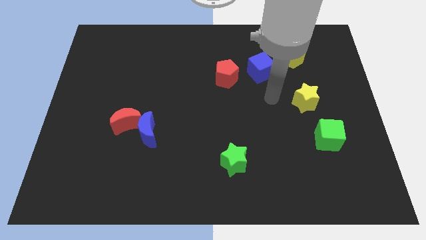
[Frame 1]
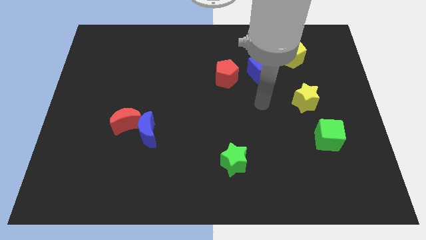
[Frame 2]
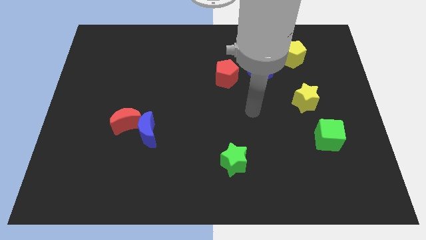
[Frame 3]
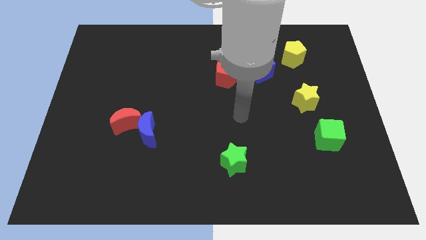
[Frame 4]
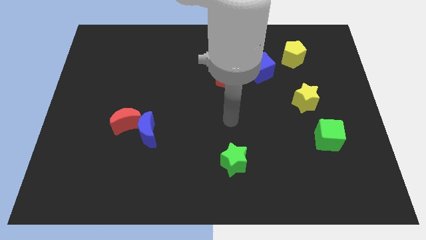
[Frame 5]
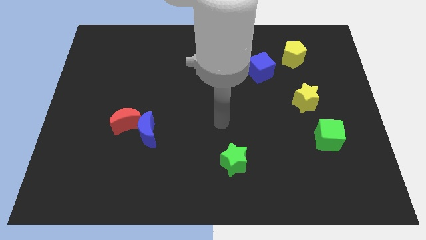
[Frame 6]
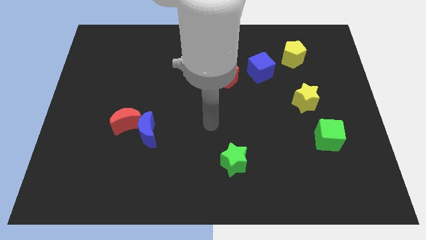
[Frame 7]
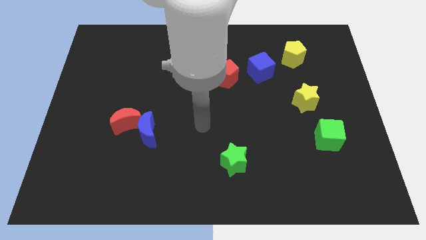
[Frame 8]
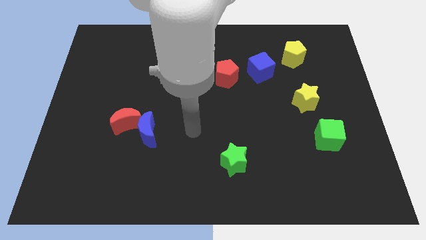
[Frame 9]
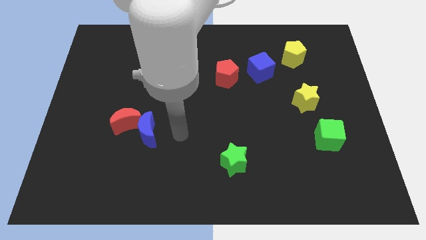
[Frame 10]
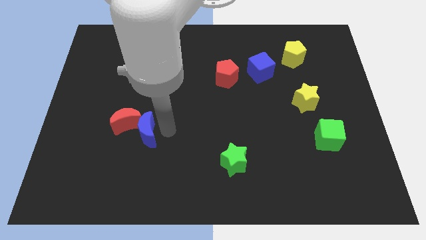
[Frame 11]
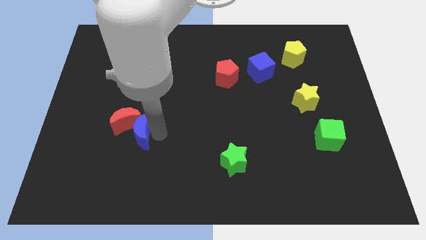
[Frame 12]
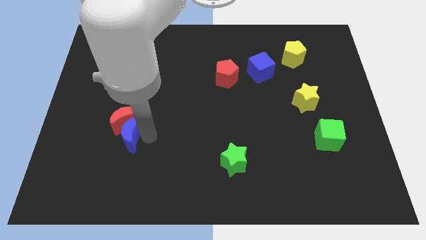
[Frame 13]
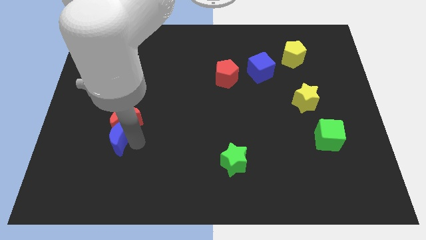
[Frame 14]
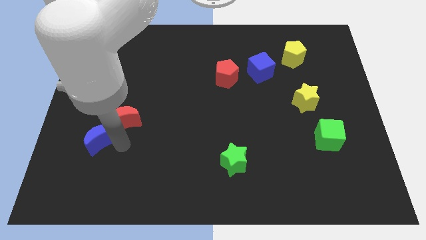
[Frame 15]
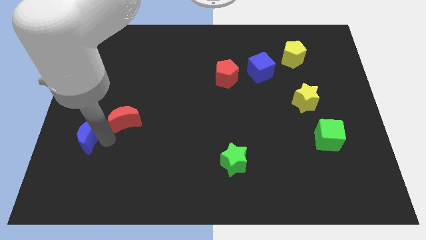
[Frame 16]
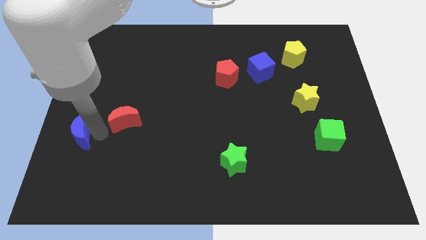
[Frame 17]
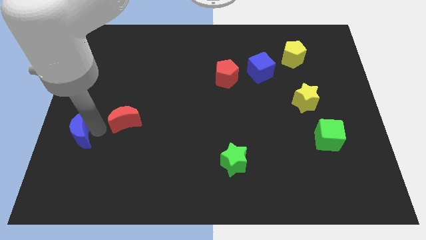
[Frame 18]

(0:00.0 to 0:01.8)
separate the red moon from the blue moon

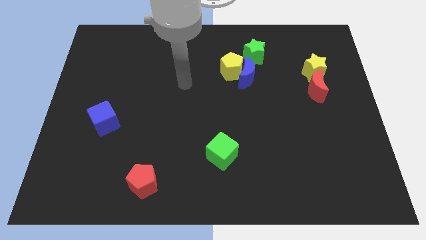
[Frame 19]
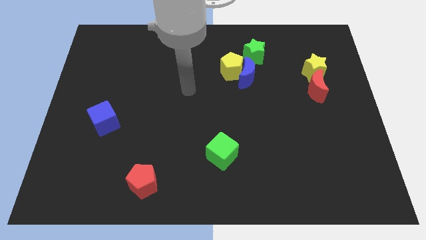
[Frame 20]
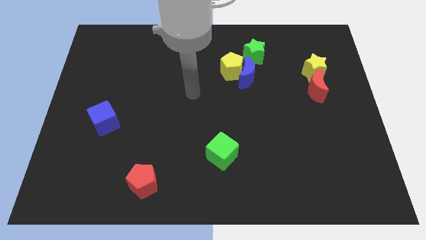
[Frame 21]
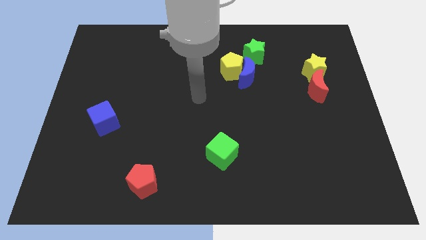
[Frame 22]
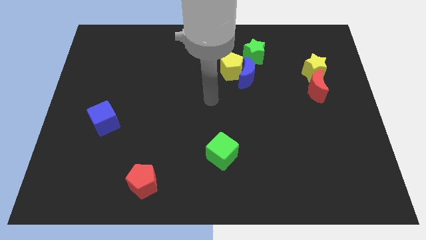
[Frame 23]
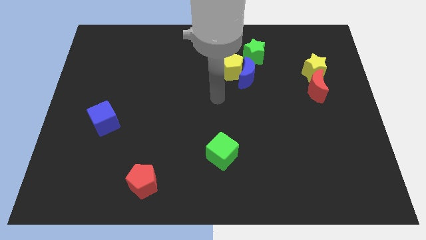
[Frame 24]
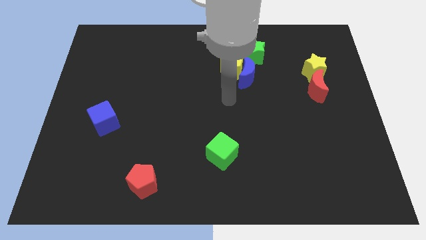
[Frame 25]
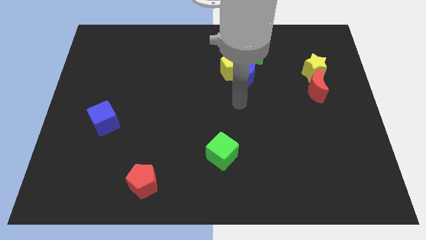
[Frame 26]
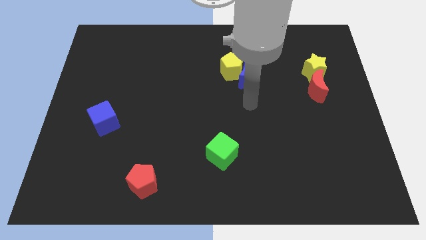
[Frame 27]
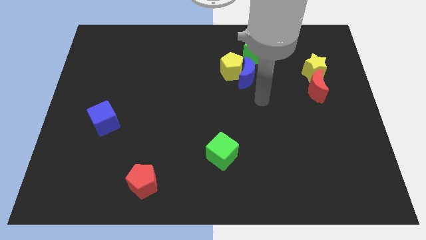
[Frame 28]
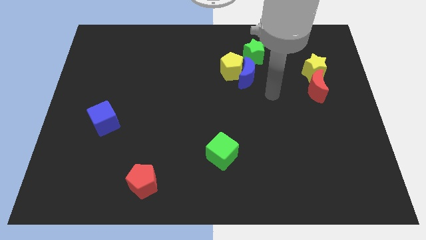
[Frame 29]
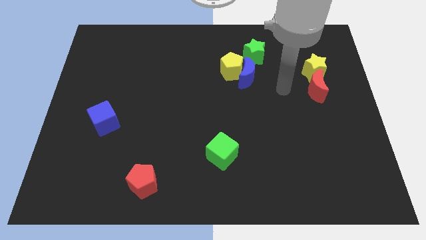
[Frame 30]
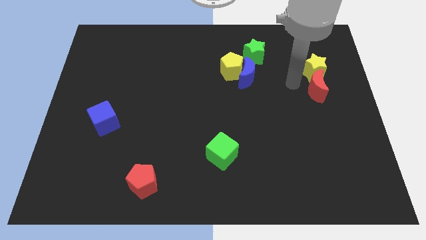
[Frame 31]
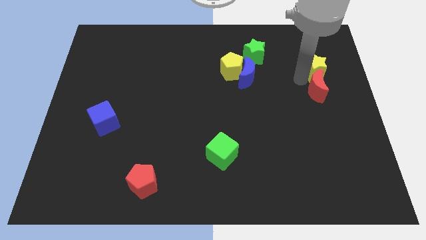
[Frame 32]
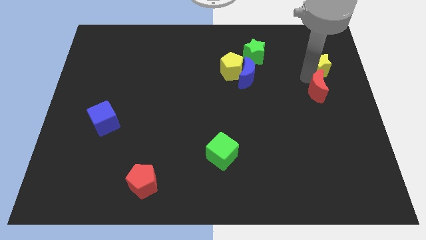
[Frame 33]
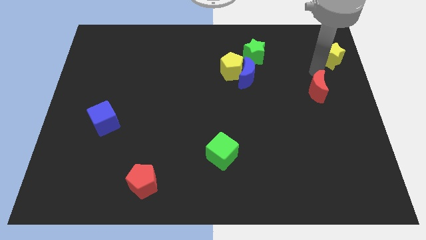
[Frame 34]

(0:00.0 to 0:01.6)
separate the red moon from the yellow star

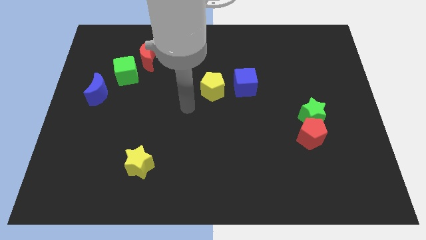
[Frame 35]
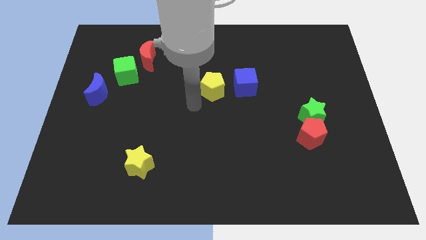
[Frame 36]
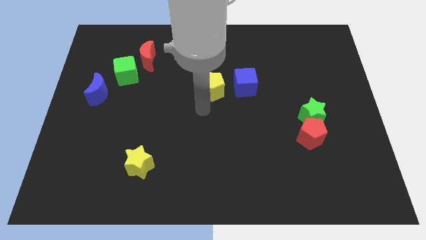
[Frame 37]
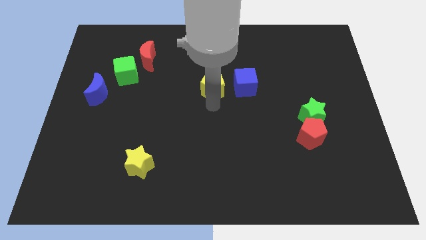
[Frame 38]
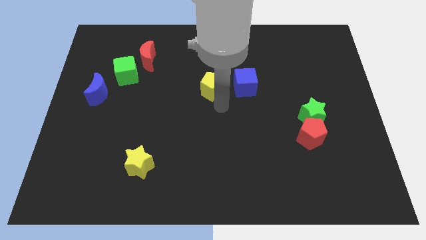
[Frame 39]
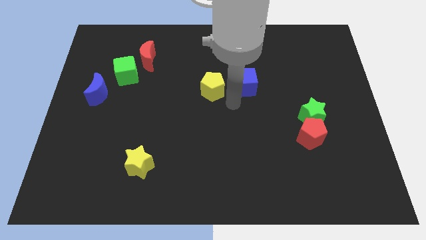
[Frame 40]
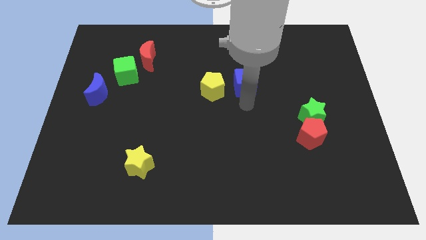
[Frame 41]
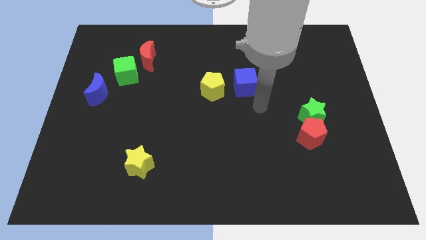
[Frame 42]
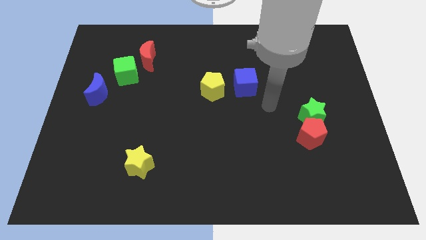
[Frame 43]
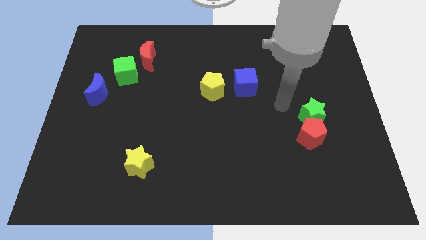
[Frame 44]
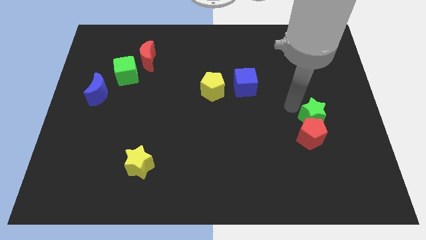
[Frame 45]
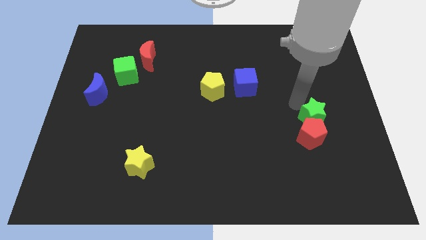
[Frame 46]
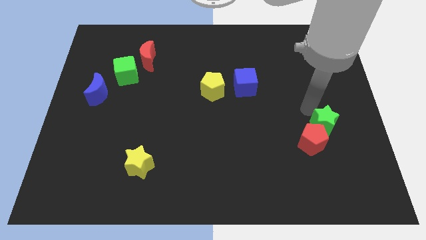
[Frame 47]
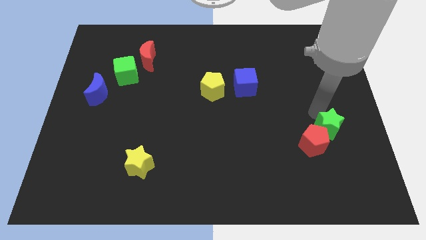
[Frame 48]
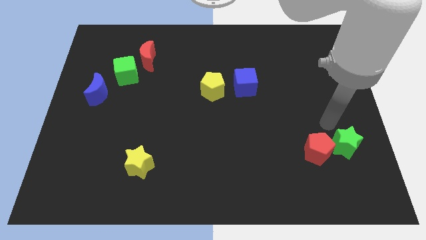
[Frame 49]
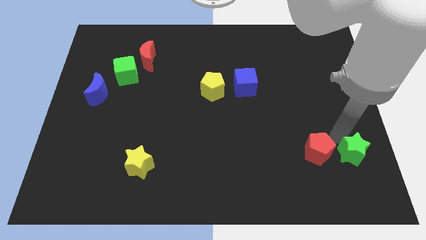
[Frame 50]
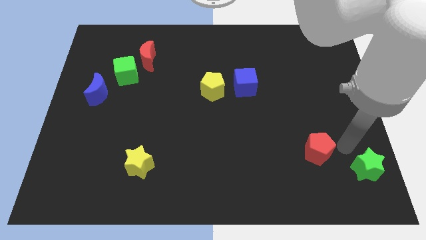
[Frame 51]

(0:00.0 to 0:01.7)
separate the red pentagon from the green star

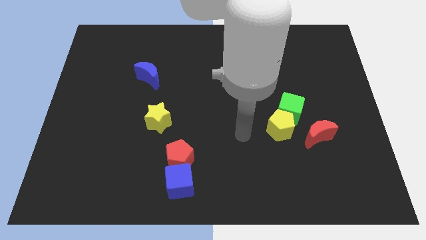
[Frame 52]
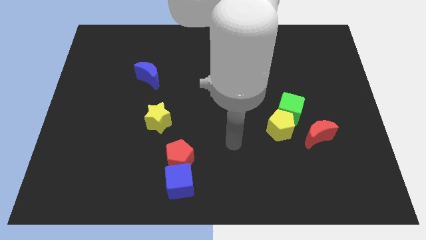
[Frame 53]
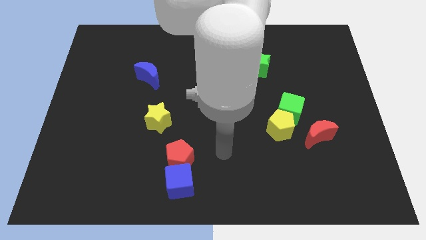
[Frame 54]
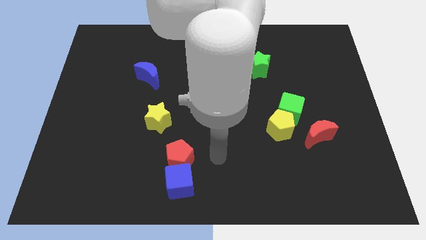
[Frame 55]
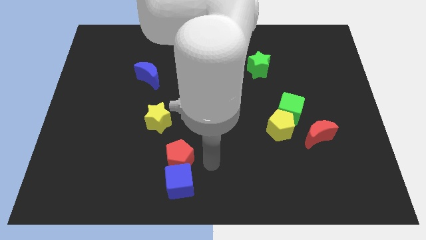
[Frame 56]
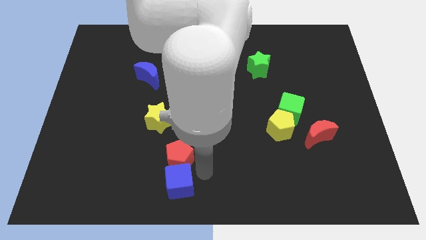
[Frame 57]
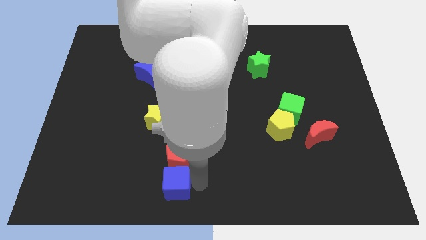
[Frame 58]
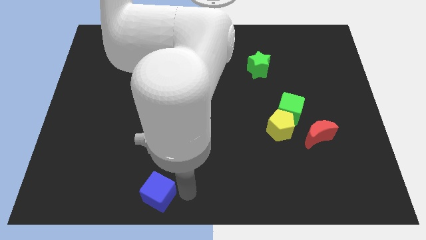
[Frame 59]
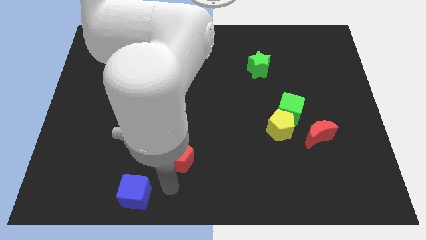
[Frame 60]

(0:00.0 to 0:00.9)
pull the red pentagon apart from the blue cube

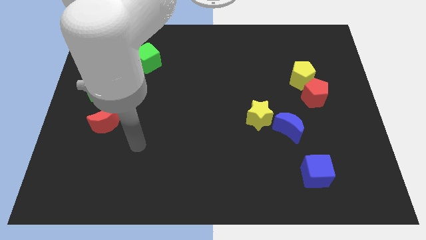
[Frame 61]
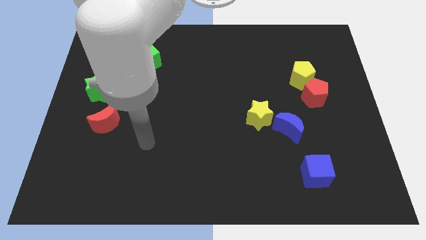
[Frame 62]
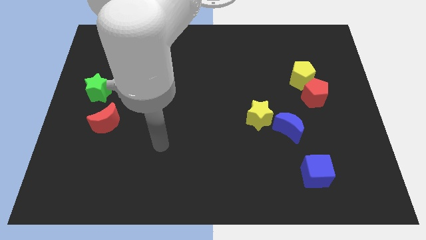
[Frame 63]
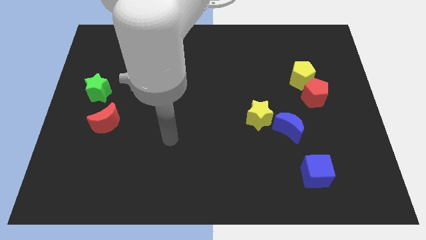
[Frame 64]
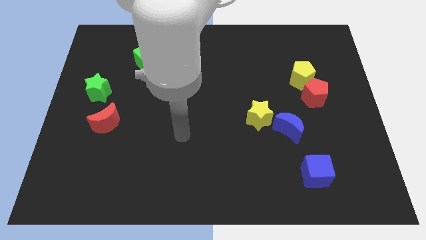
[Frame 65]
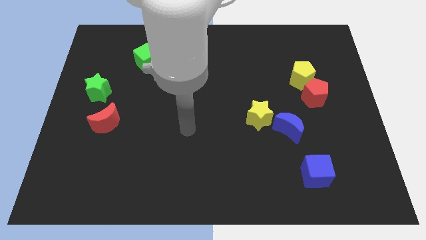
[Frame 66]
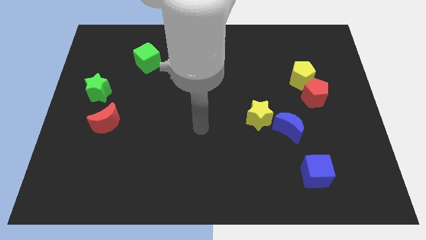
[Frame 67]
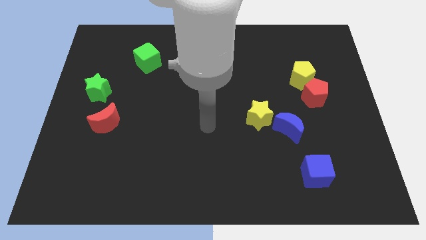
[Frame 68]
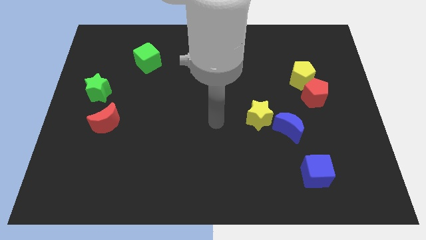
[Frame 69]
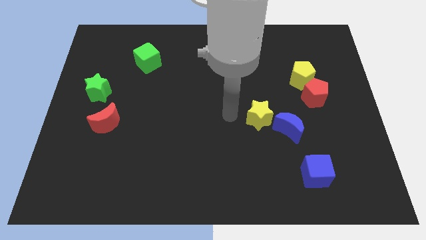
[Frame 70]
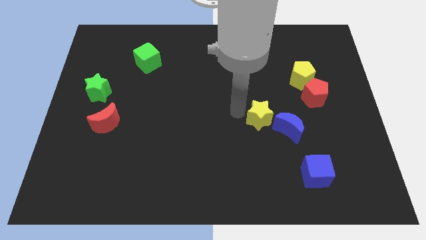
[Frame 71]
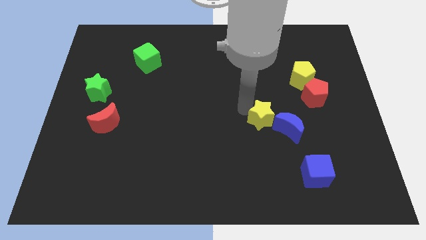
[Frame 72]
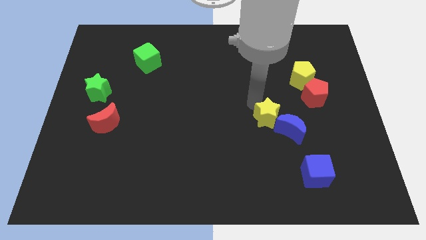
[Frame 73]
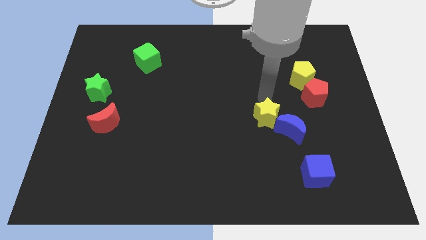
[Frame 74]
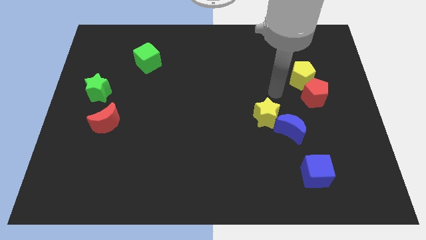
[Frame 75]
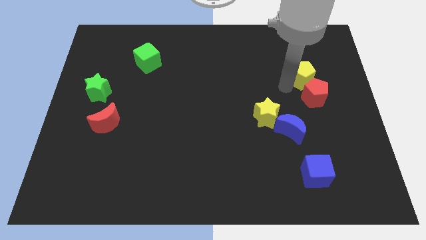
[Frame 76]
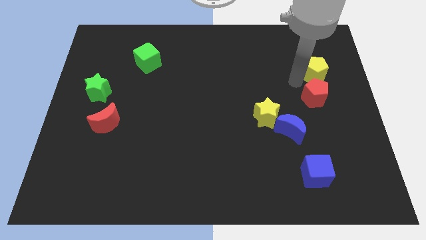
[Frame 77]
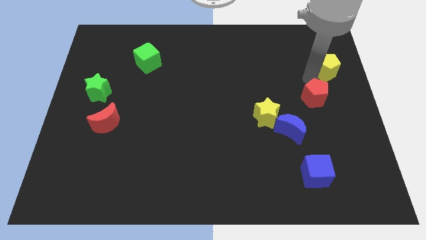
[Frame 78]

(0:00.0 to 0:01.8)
separate the red pentagon from the yellow pentagon

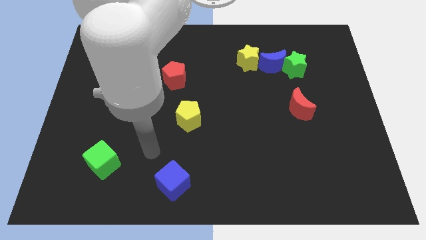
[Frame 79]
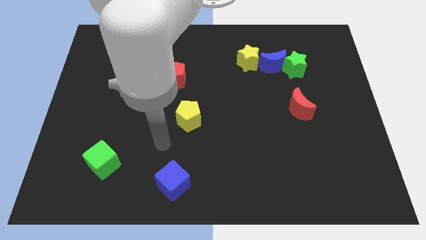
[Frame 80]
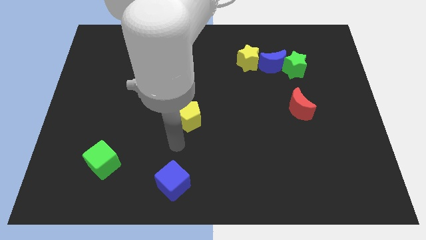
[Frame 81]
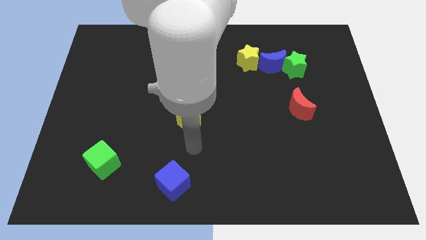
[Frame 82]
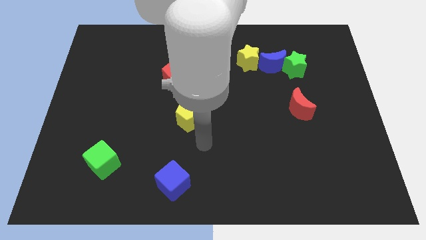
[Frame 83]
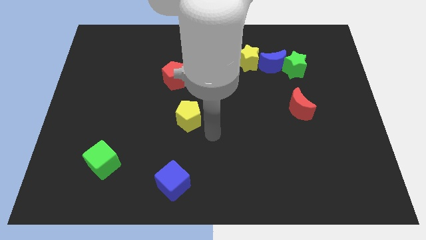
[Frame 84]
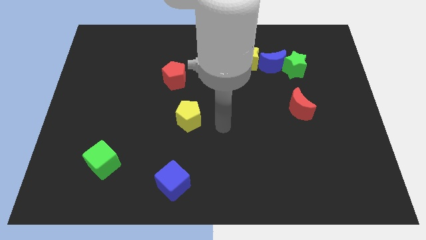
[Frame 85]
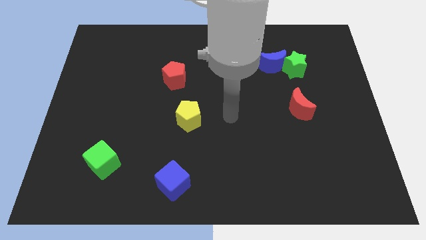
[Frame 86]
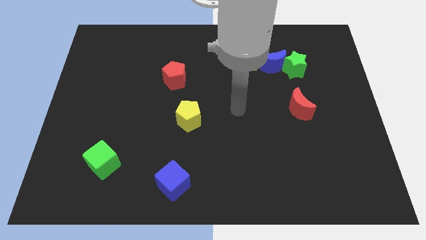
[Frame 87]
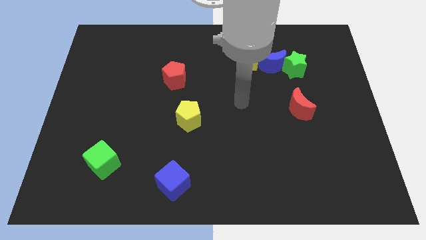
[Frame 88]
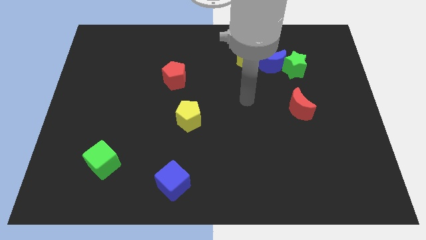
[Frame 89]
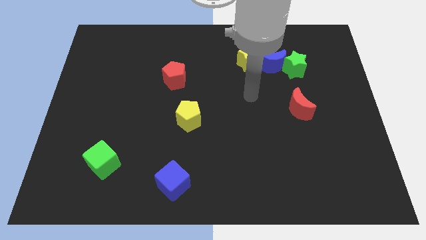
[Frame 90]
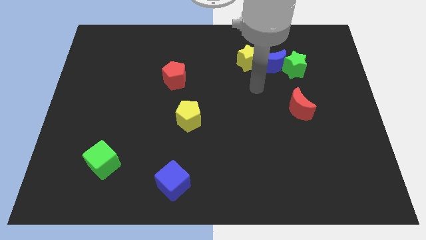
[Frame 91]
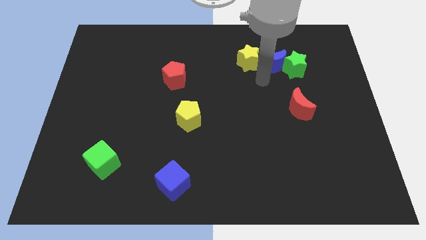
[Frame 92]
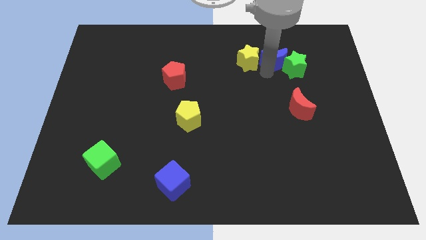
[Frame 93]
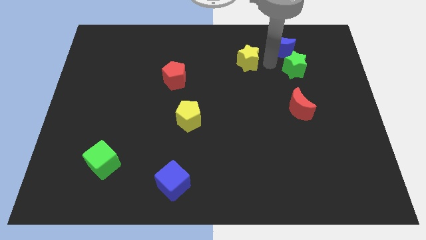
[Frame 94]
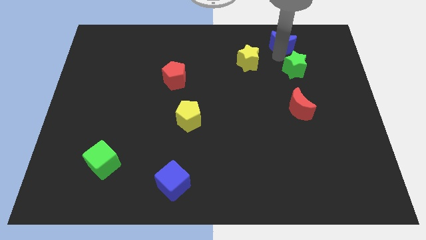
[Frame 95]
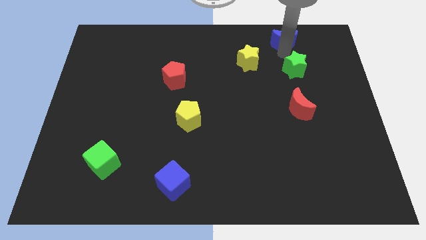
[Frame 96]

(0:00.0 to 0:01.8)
pull the green star apart from the blue moon
